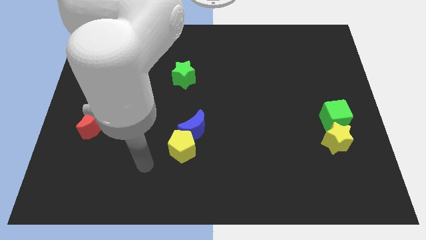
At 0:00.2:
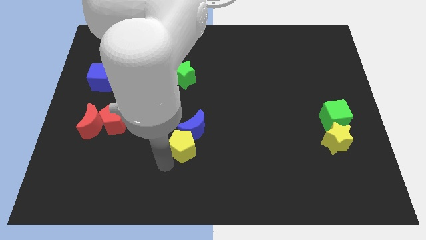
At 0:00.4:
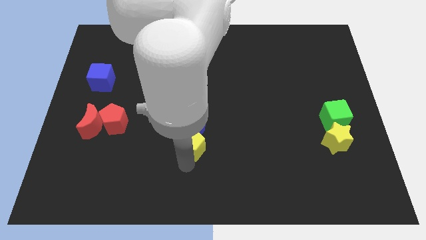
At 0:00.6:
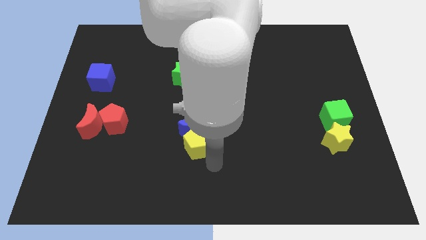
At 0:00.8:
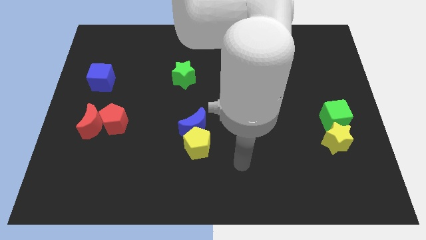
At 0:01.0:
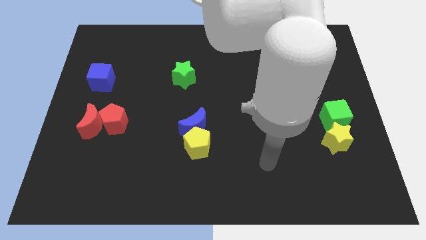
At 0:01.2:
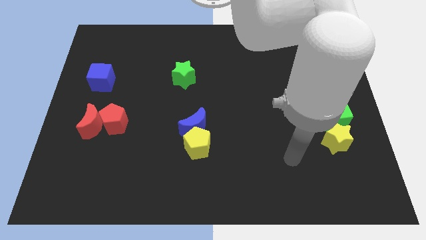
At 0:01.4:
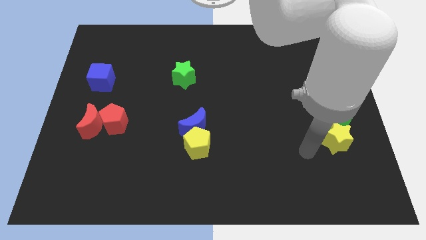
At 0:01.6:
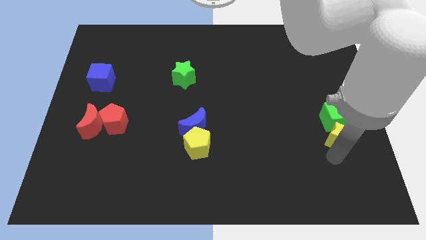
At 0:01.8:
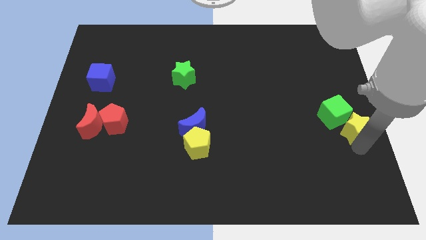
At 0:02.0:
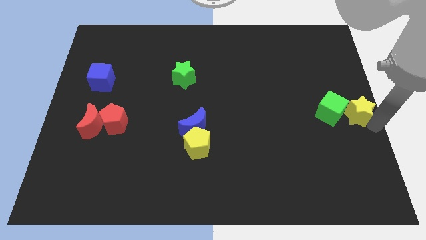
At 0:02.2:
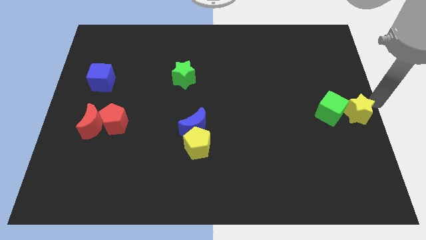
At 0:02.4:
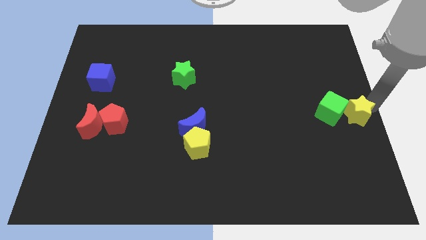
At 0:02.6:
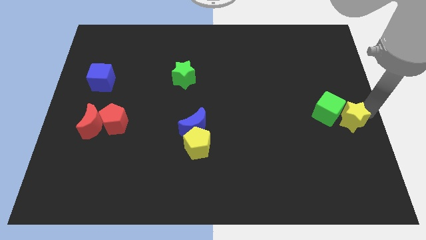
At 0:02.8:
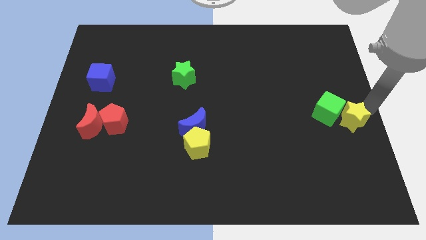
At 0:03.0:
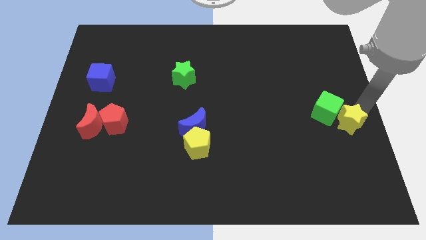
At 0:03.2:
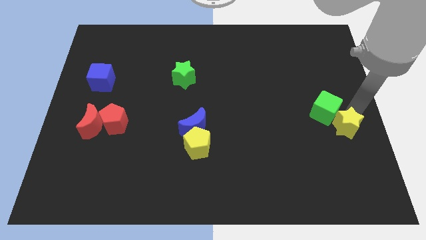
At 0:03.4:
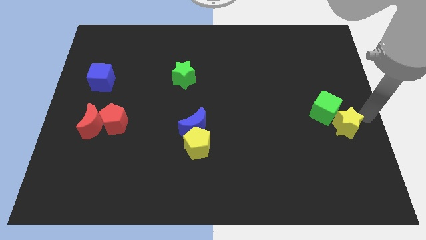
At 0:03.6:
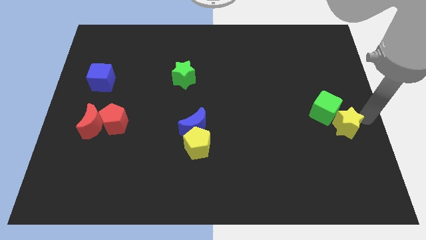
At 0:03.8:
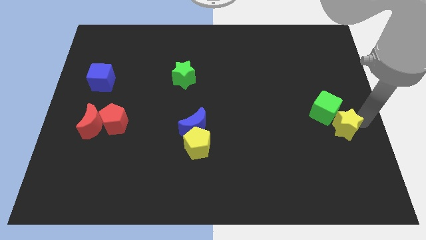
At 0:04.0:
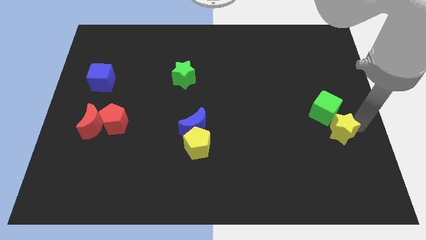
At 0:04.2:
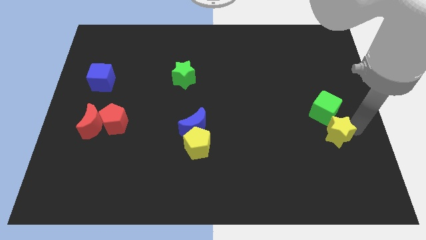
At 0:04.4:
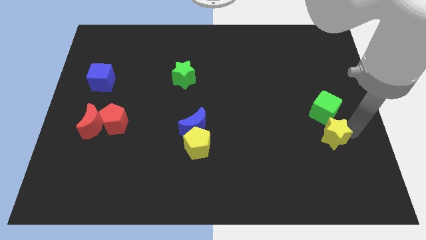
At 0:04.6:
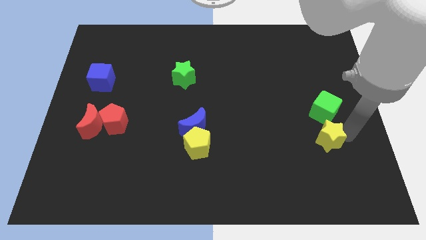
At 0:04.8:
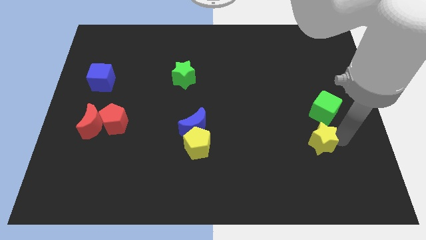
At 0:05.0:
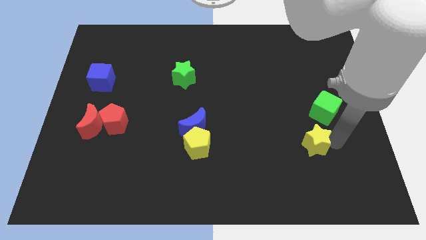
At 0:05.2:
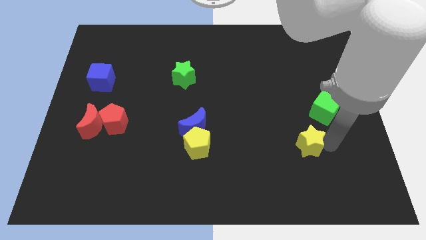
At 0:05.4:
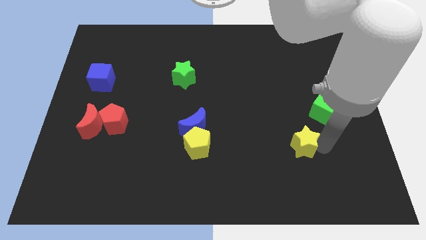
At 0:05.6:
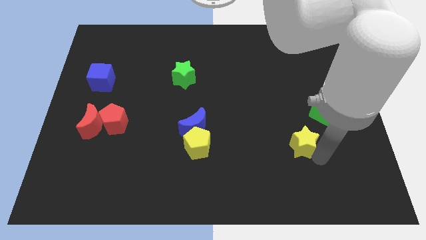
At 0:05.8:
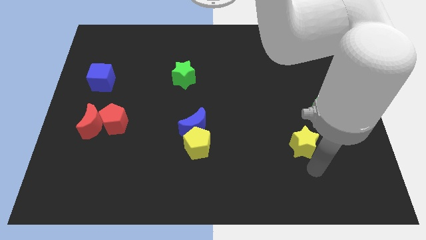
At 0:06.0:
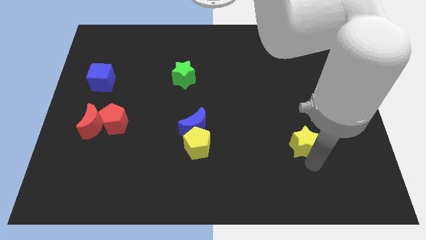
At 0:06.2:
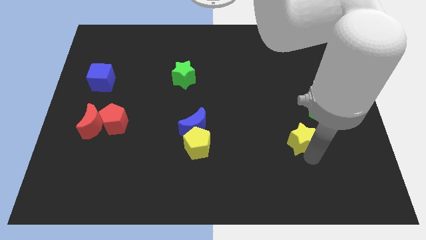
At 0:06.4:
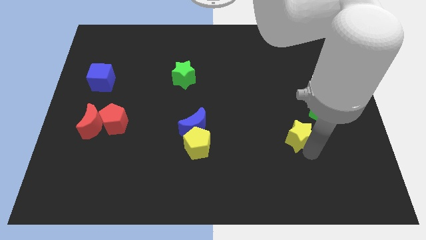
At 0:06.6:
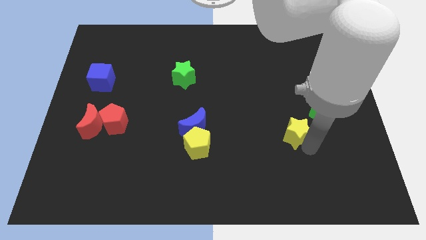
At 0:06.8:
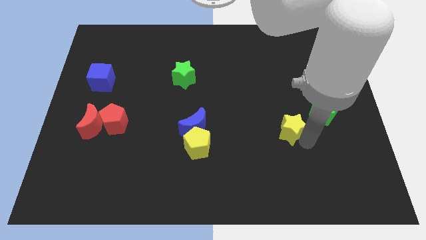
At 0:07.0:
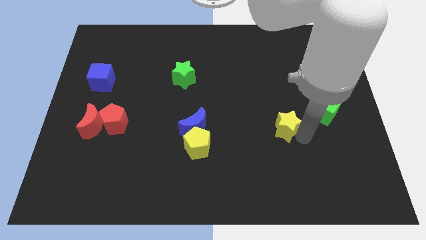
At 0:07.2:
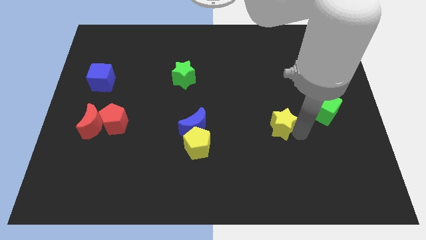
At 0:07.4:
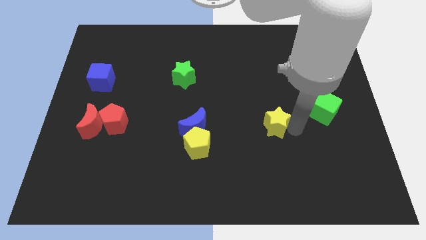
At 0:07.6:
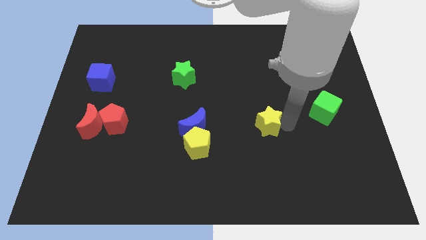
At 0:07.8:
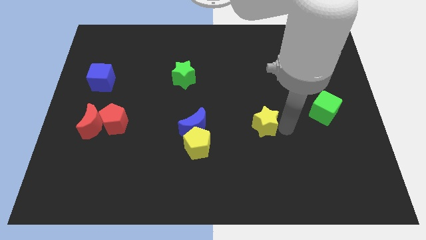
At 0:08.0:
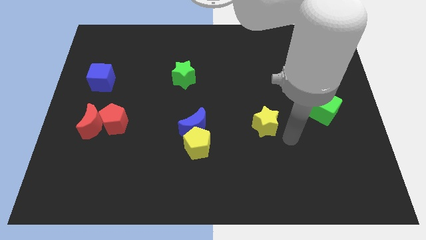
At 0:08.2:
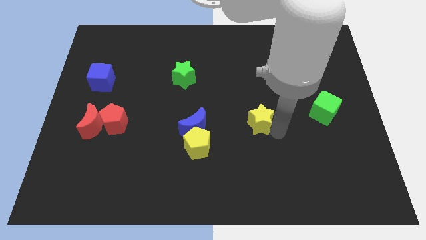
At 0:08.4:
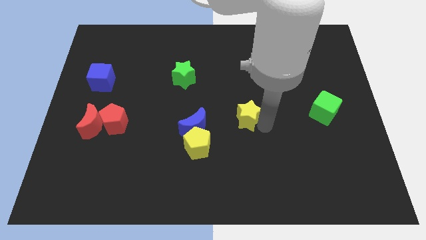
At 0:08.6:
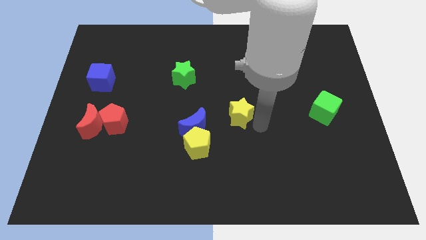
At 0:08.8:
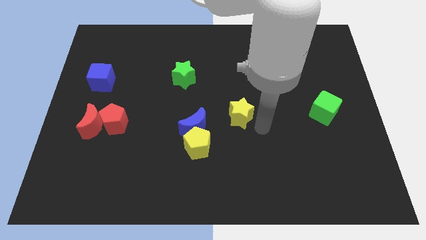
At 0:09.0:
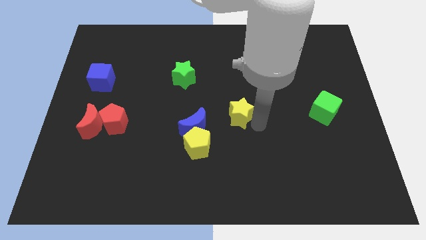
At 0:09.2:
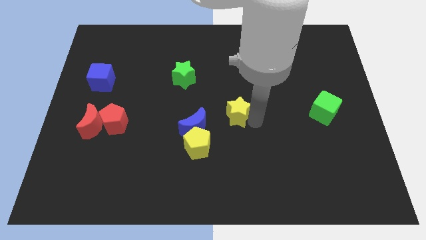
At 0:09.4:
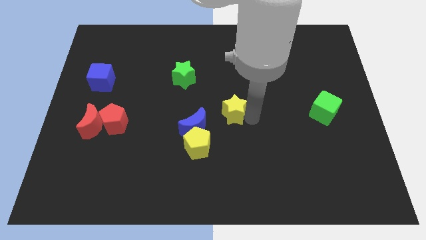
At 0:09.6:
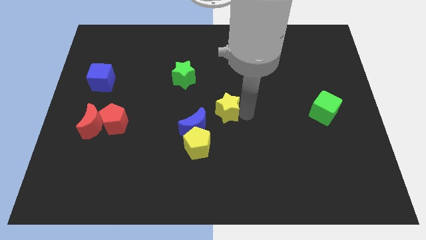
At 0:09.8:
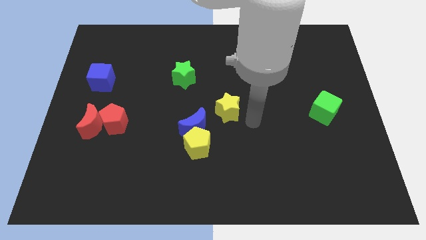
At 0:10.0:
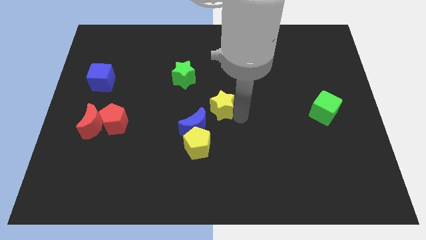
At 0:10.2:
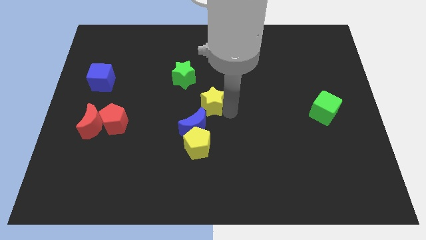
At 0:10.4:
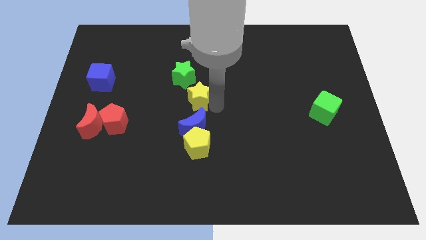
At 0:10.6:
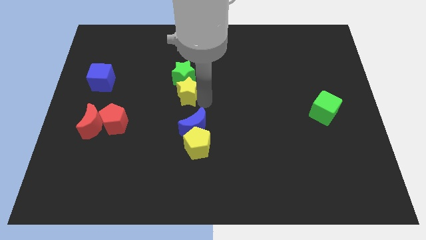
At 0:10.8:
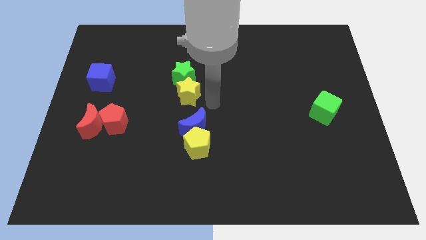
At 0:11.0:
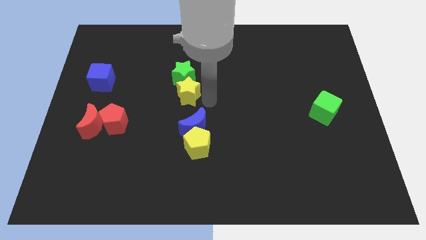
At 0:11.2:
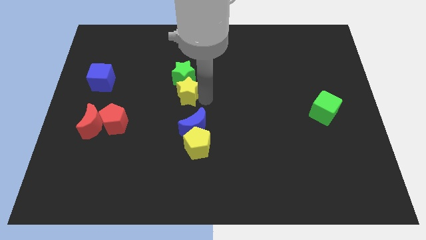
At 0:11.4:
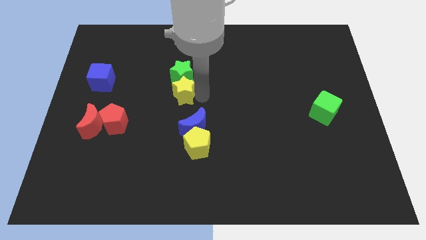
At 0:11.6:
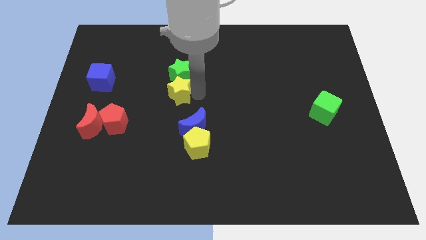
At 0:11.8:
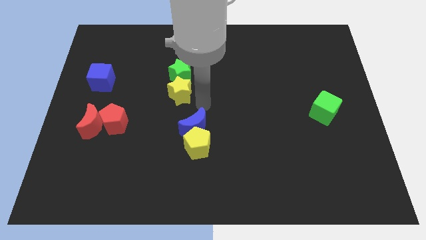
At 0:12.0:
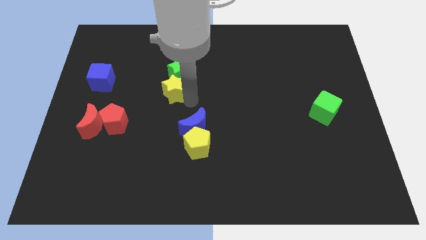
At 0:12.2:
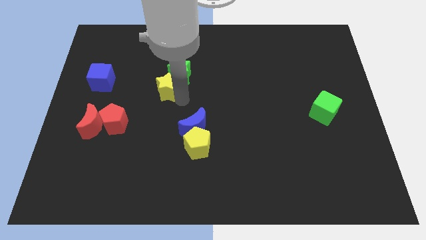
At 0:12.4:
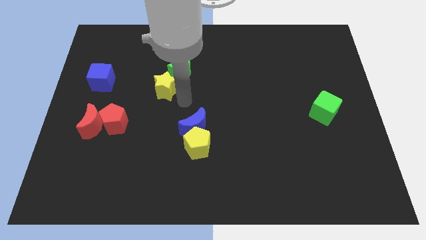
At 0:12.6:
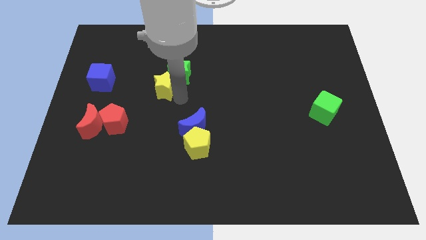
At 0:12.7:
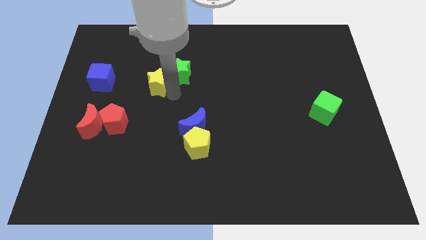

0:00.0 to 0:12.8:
push the yellow star to the left side of the green star
